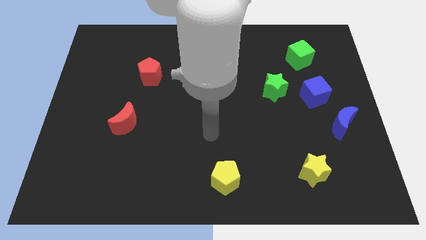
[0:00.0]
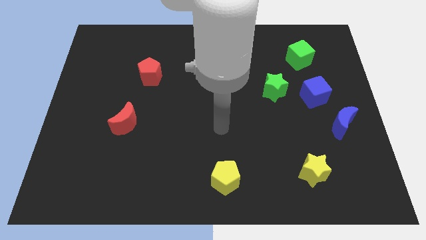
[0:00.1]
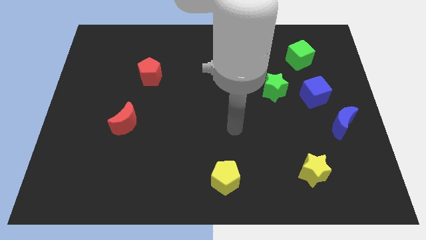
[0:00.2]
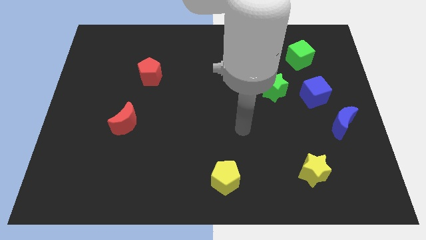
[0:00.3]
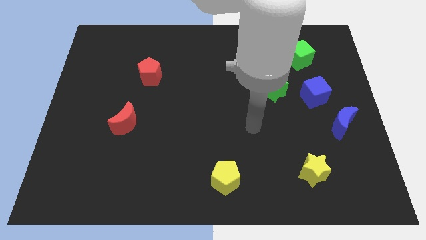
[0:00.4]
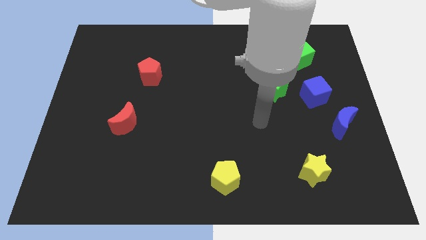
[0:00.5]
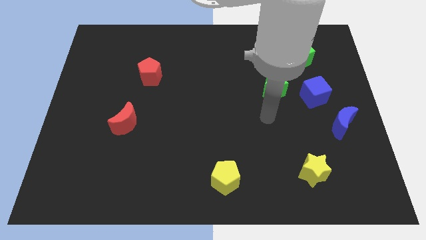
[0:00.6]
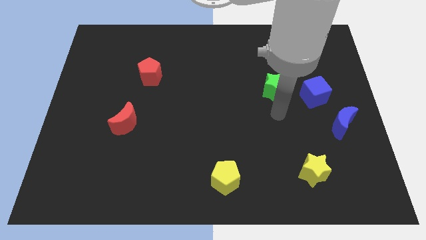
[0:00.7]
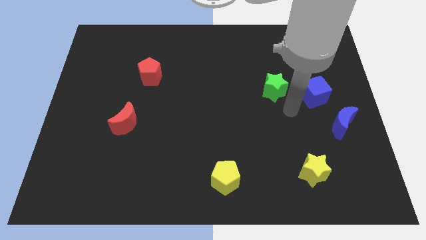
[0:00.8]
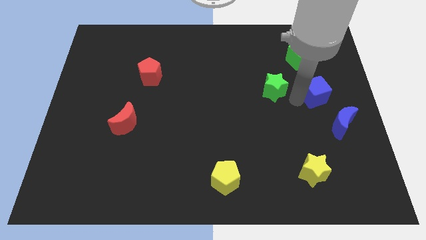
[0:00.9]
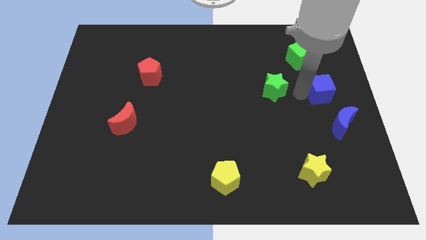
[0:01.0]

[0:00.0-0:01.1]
separate the green star from the blue cube

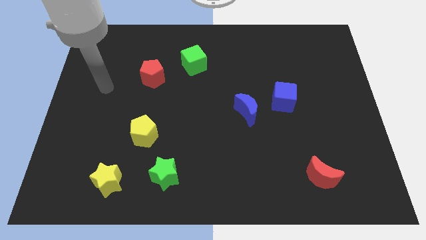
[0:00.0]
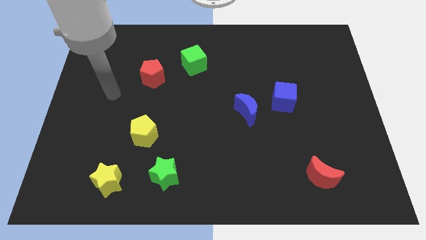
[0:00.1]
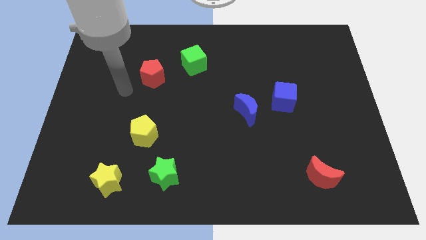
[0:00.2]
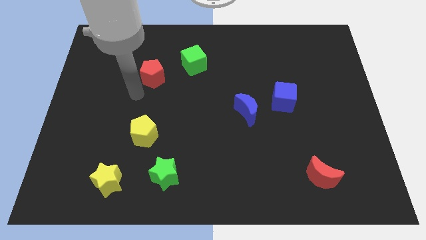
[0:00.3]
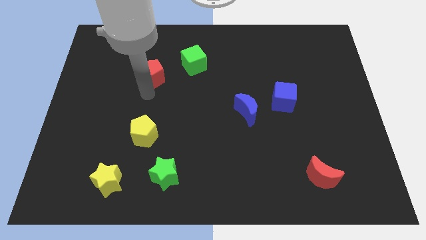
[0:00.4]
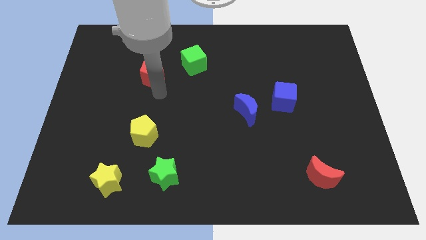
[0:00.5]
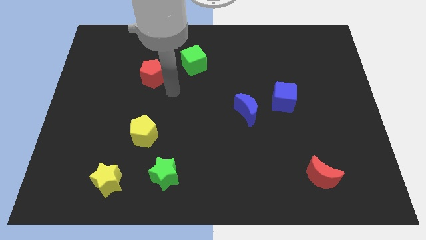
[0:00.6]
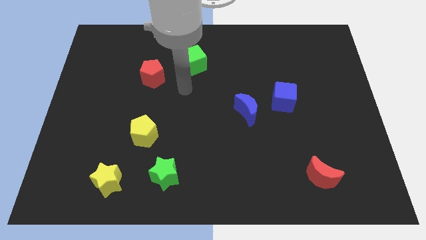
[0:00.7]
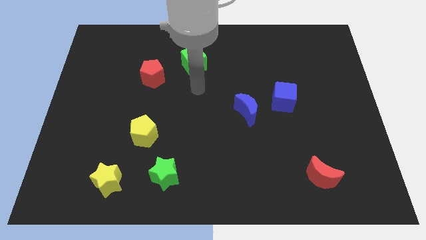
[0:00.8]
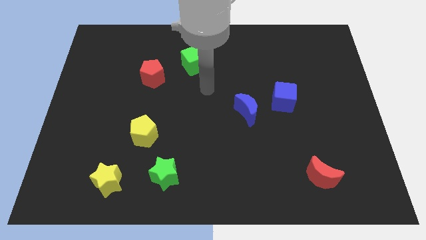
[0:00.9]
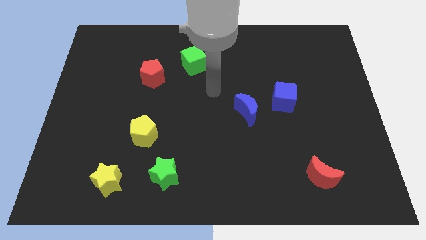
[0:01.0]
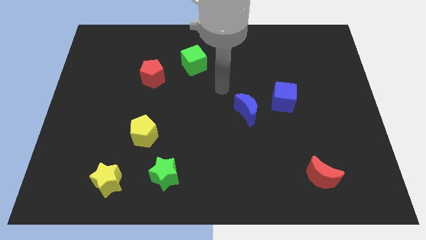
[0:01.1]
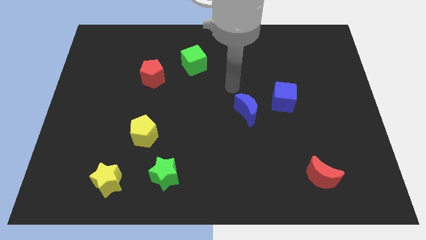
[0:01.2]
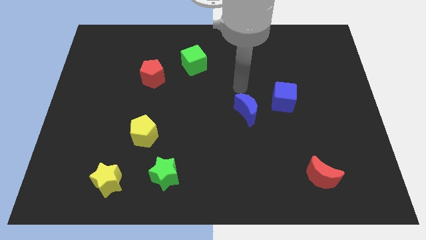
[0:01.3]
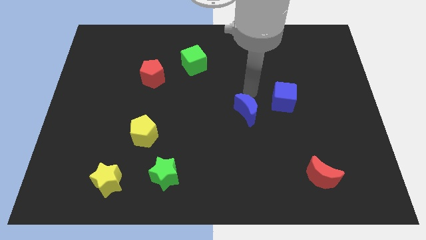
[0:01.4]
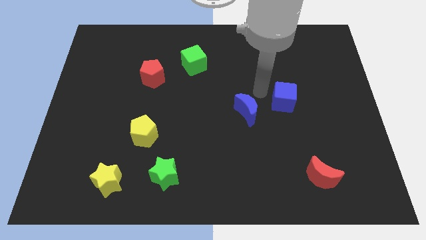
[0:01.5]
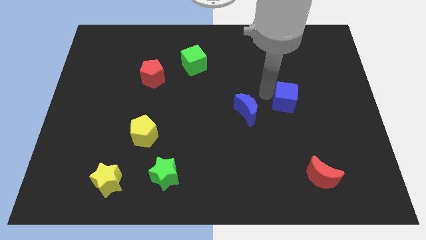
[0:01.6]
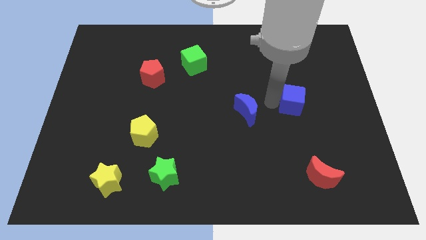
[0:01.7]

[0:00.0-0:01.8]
separate the blue moon from the blue cube

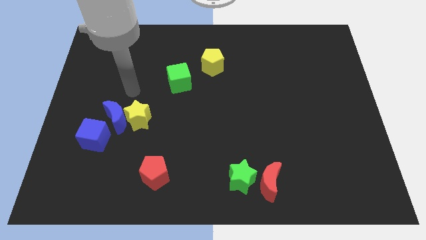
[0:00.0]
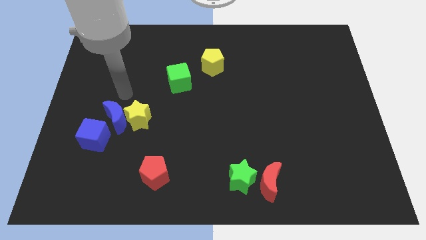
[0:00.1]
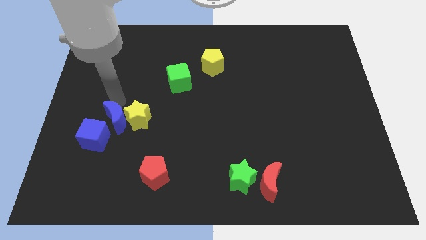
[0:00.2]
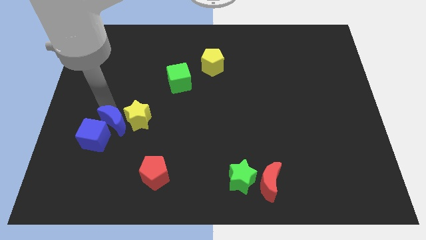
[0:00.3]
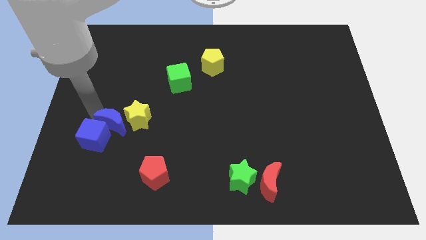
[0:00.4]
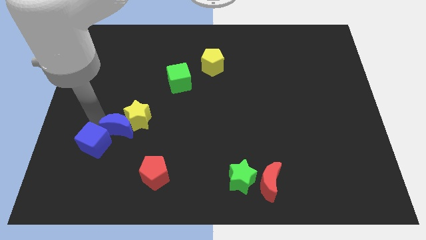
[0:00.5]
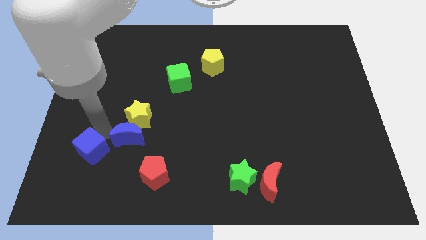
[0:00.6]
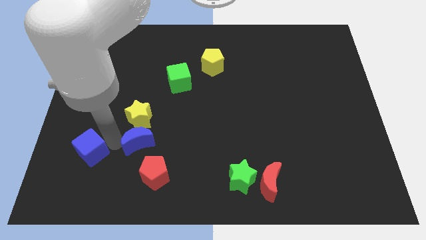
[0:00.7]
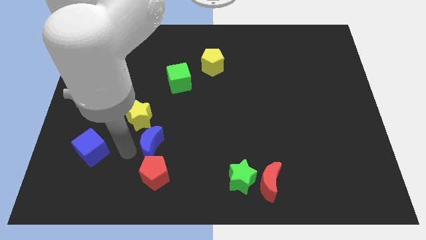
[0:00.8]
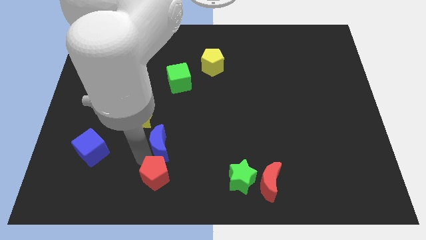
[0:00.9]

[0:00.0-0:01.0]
separate the blue moon from the yellow star and blue cube

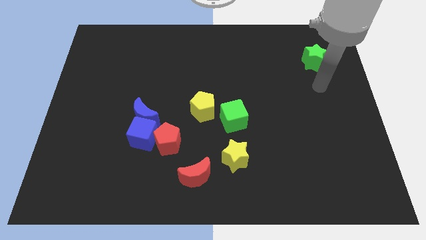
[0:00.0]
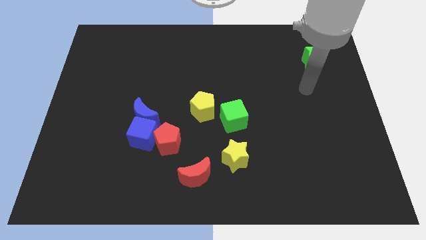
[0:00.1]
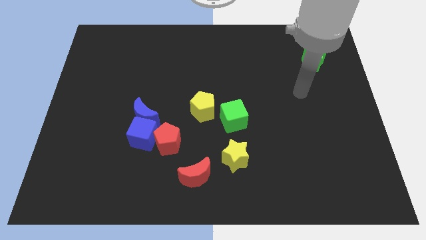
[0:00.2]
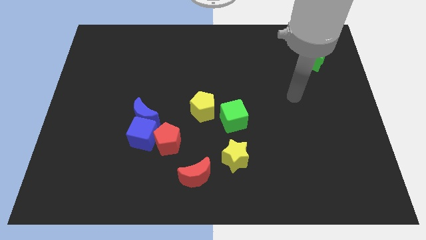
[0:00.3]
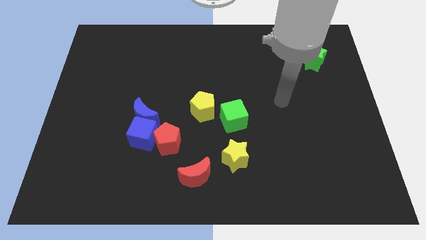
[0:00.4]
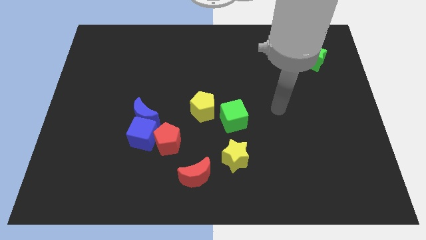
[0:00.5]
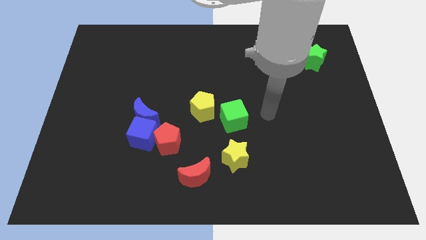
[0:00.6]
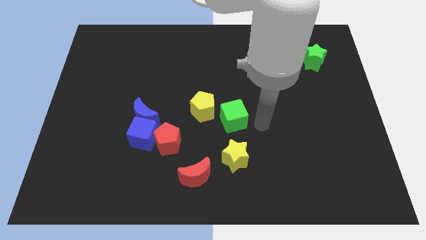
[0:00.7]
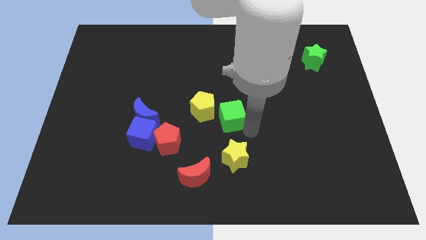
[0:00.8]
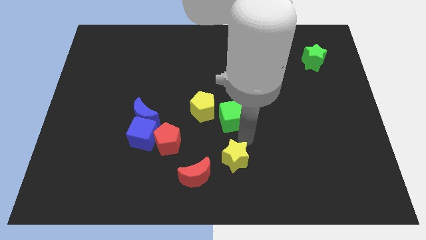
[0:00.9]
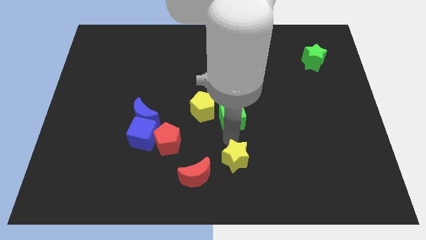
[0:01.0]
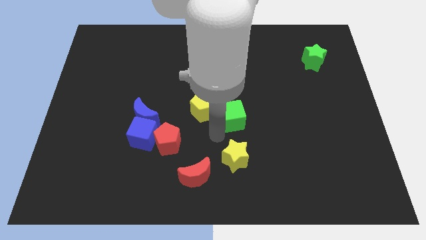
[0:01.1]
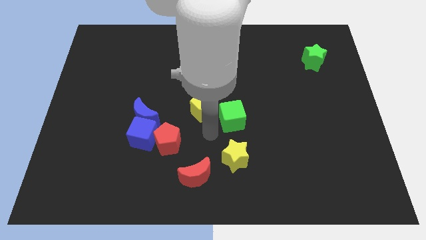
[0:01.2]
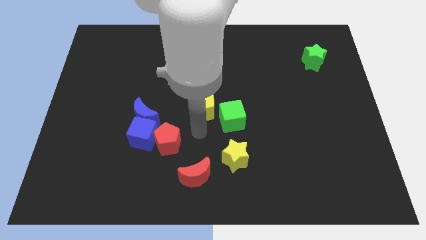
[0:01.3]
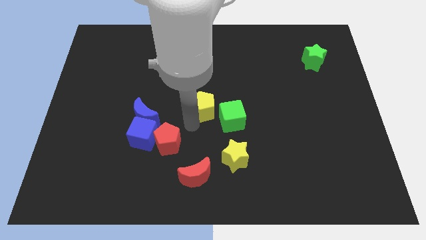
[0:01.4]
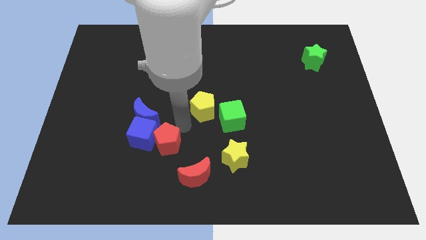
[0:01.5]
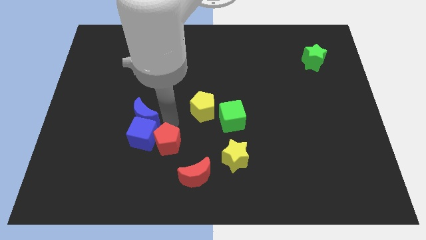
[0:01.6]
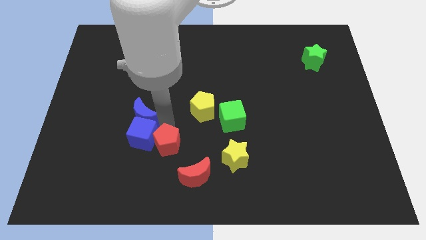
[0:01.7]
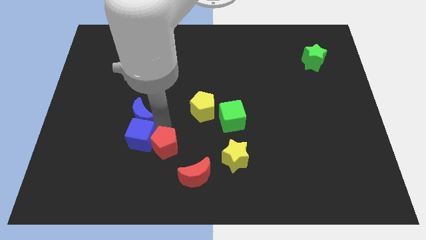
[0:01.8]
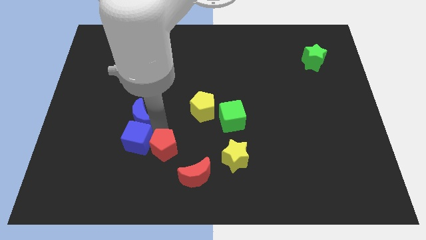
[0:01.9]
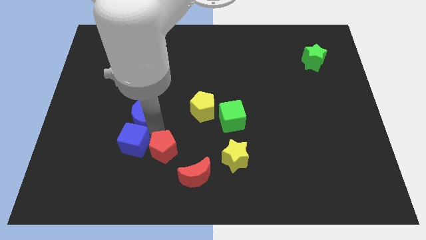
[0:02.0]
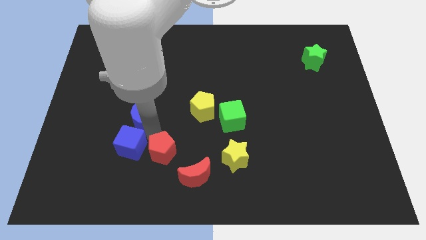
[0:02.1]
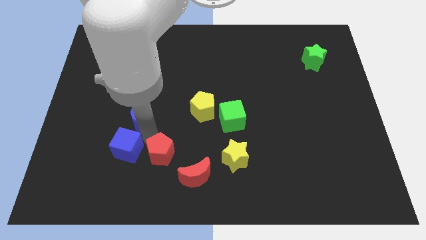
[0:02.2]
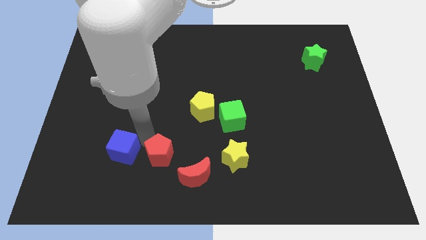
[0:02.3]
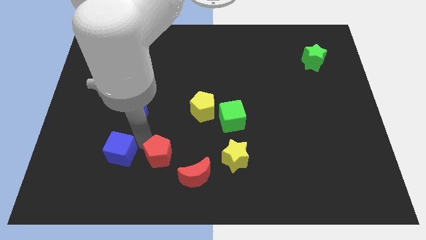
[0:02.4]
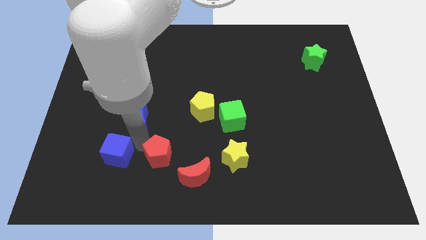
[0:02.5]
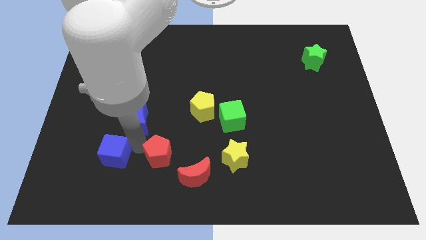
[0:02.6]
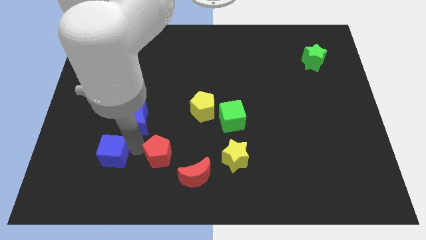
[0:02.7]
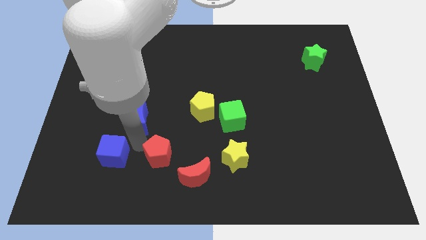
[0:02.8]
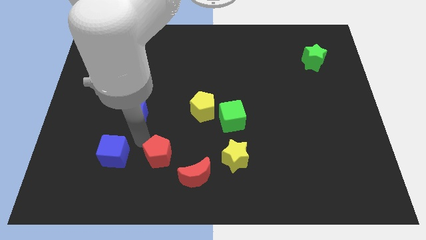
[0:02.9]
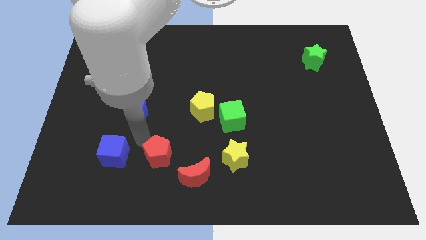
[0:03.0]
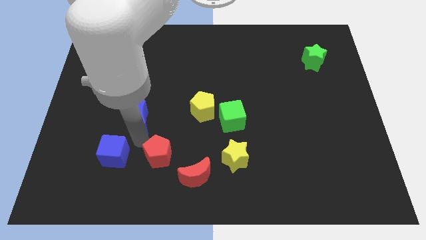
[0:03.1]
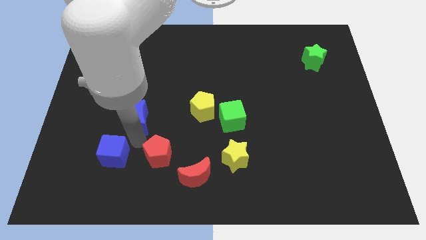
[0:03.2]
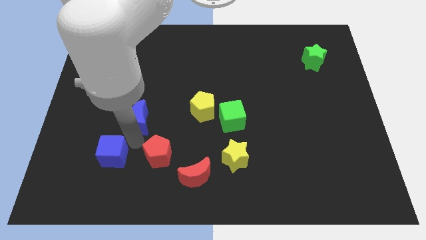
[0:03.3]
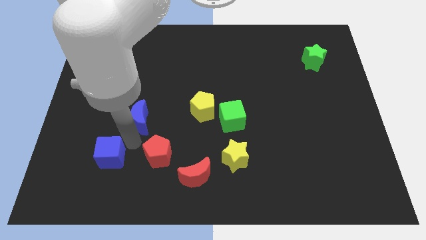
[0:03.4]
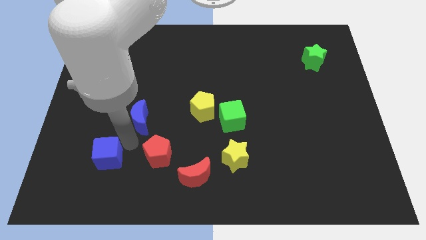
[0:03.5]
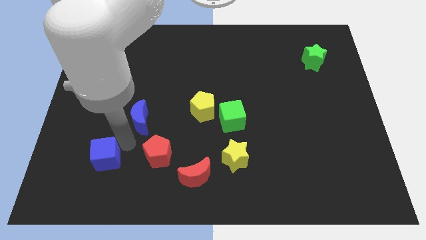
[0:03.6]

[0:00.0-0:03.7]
move the blue cube away from the blue moon and red pentagon

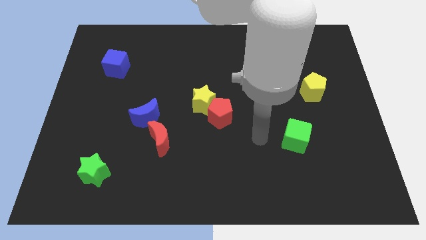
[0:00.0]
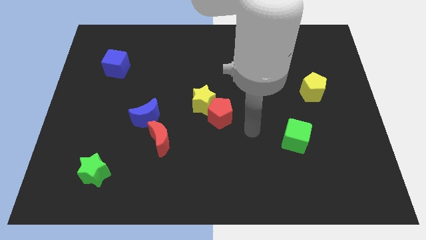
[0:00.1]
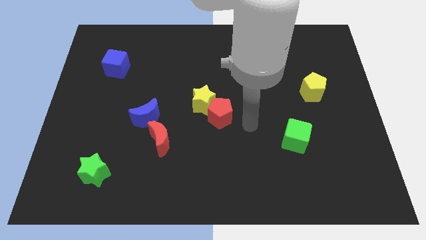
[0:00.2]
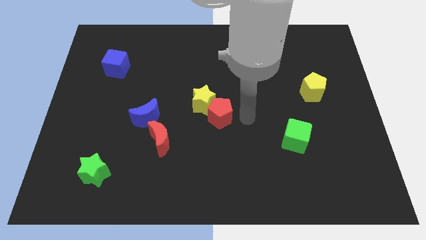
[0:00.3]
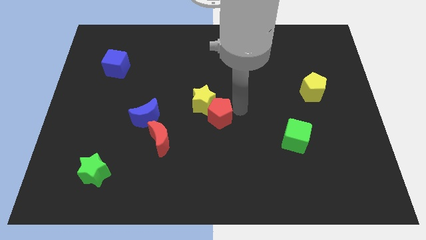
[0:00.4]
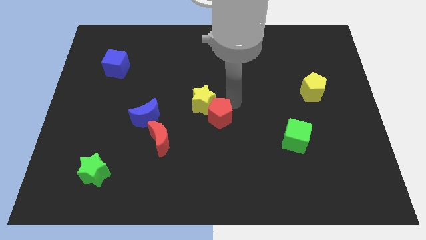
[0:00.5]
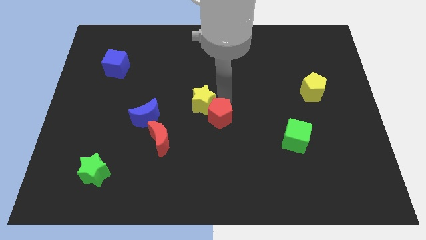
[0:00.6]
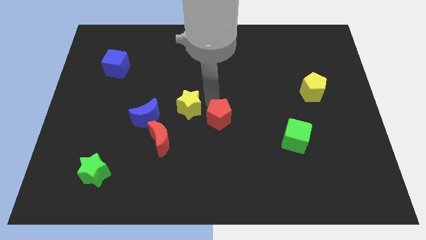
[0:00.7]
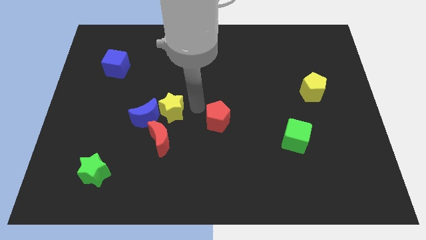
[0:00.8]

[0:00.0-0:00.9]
move the red pentagon away from the yellow star

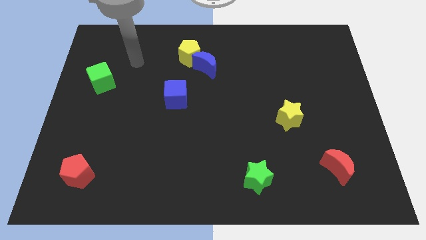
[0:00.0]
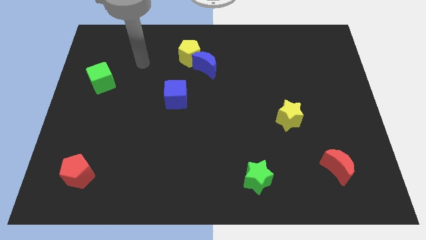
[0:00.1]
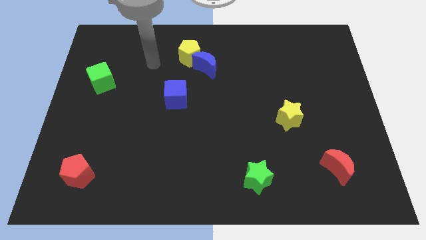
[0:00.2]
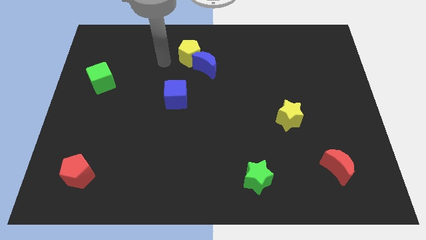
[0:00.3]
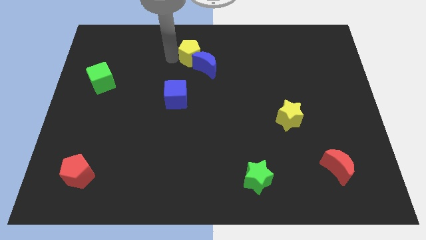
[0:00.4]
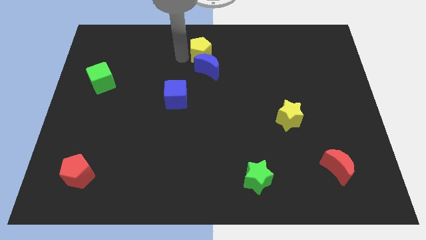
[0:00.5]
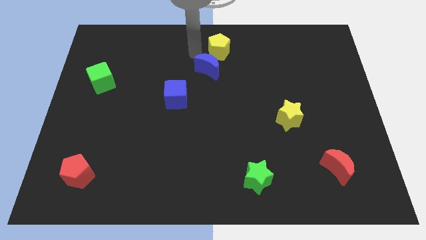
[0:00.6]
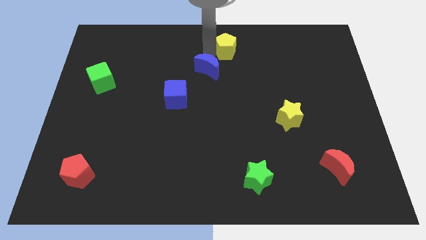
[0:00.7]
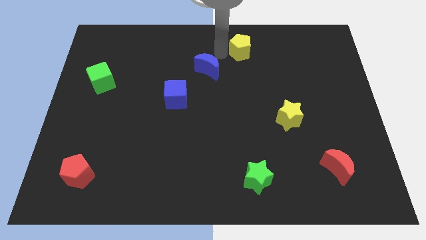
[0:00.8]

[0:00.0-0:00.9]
separate the blue moon from the yellow pentagon

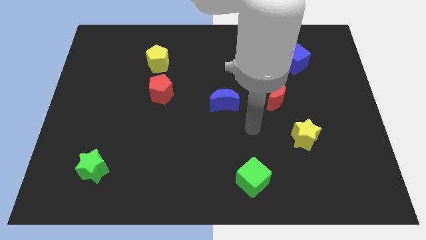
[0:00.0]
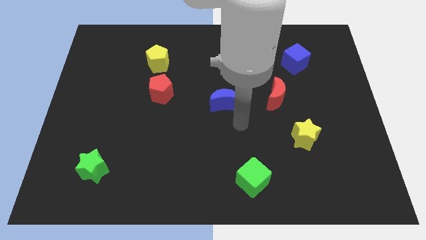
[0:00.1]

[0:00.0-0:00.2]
pull the red pentagon apart from the yellow pentagon
